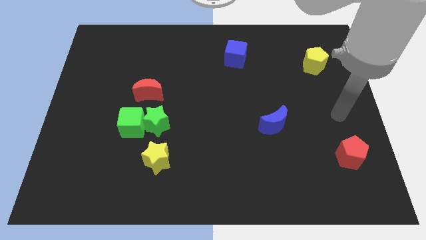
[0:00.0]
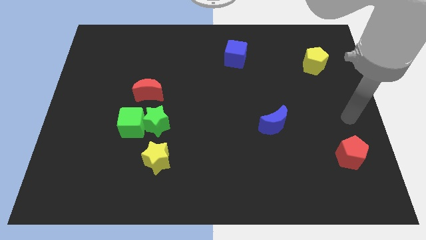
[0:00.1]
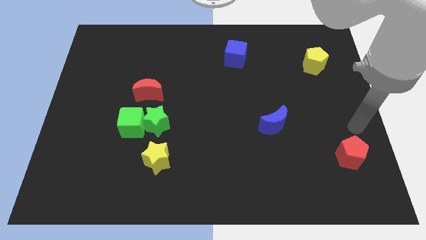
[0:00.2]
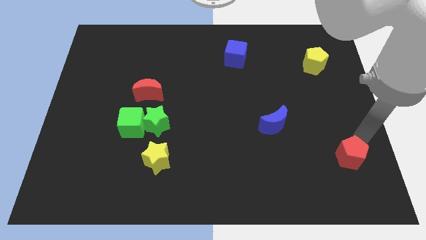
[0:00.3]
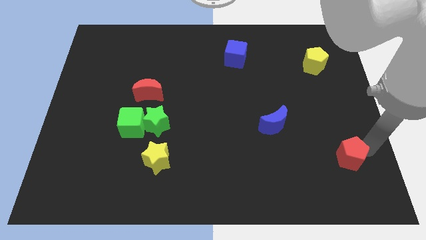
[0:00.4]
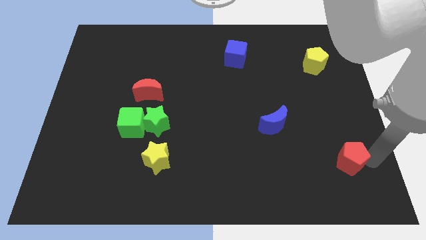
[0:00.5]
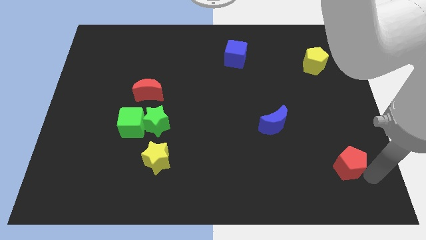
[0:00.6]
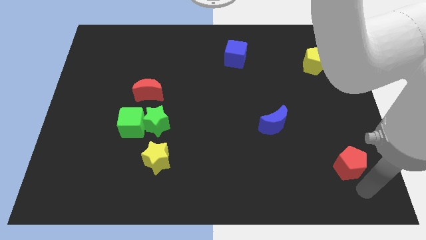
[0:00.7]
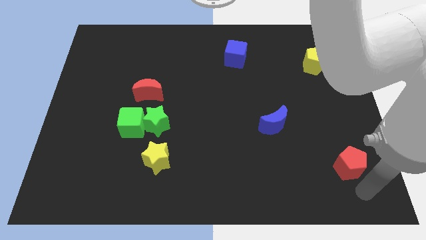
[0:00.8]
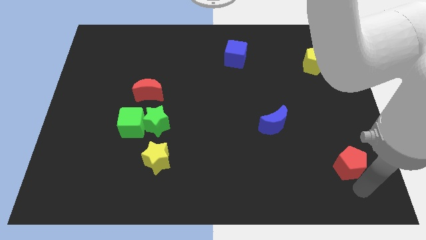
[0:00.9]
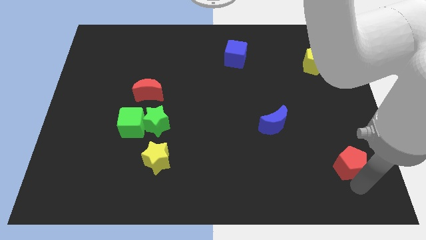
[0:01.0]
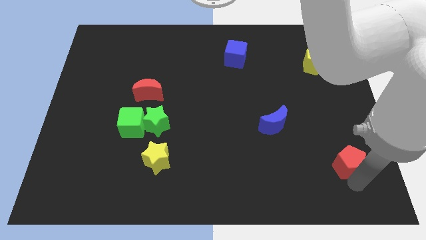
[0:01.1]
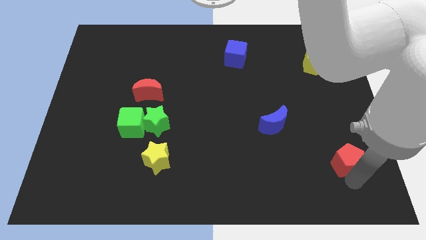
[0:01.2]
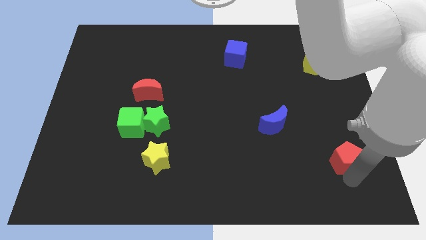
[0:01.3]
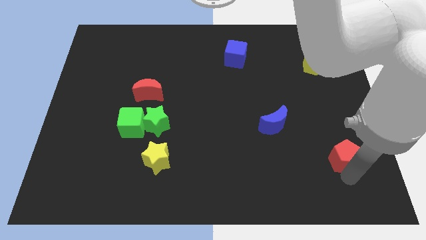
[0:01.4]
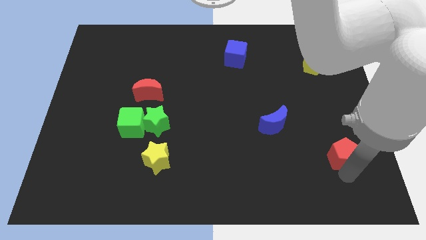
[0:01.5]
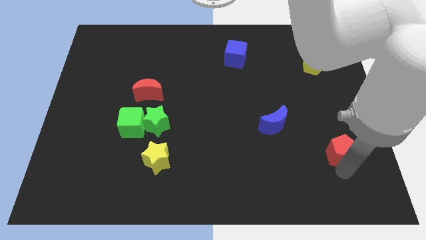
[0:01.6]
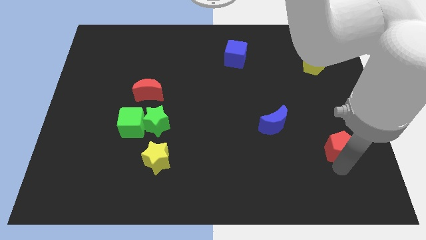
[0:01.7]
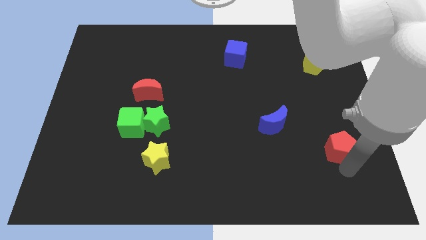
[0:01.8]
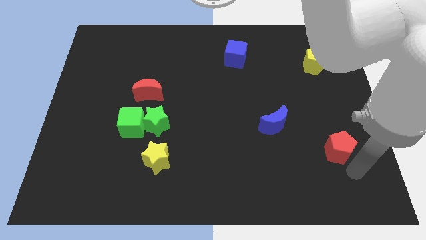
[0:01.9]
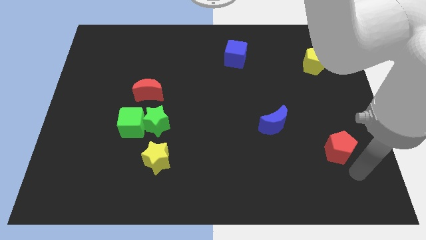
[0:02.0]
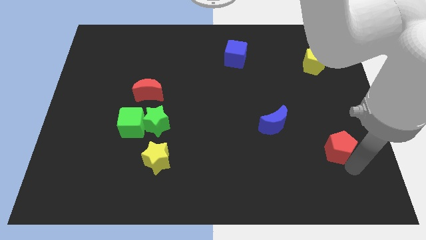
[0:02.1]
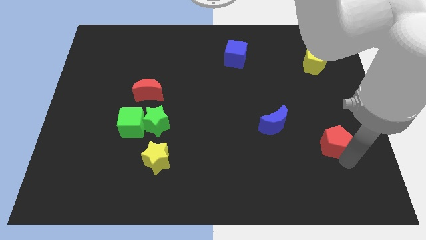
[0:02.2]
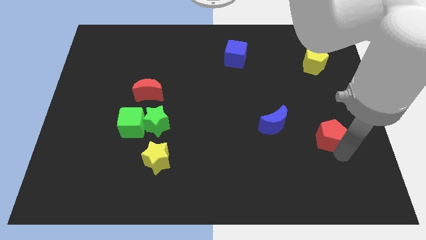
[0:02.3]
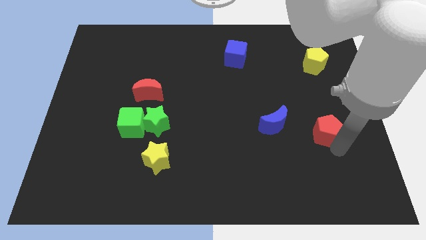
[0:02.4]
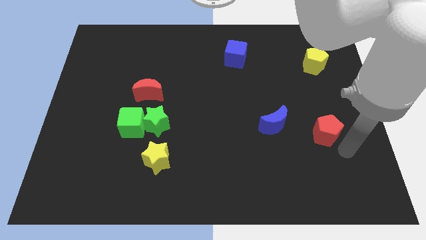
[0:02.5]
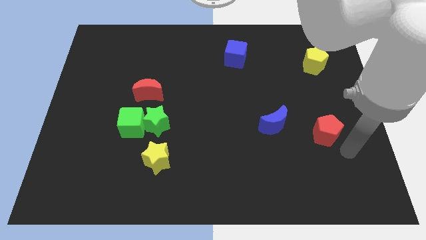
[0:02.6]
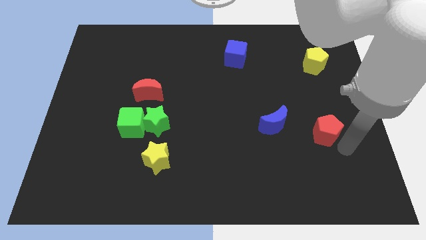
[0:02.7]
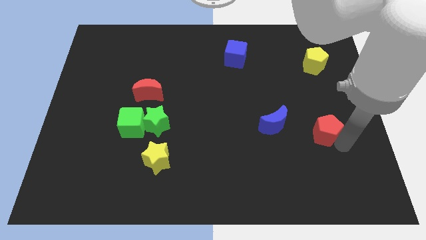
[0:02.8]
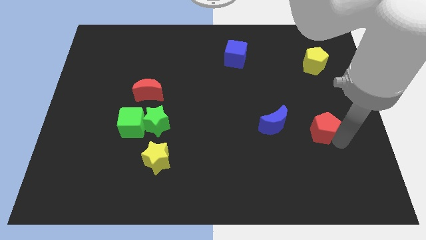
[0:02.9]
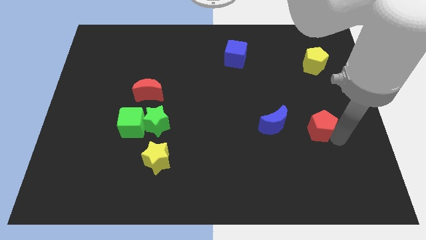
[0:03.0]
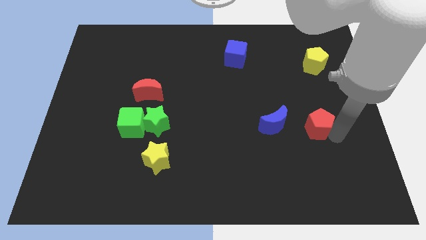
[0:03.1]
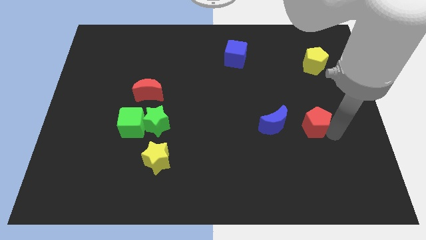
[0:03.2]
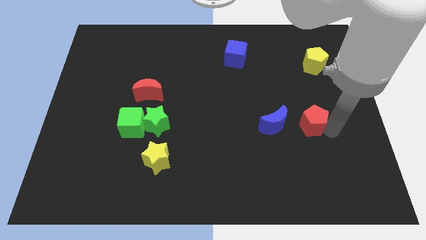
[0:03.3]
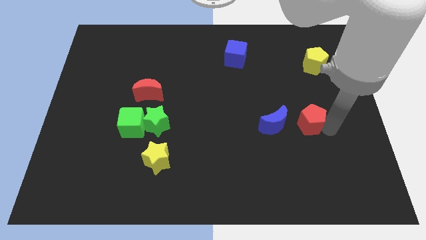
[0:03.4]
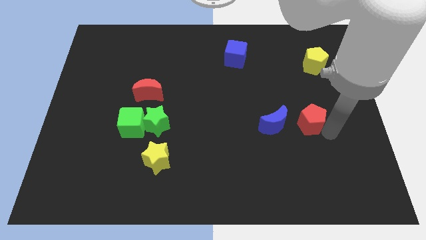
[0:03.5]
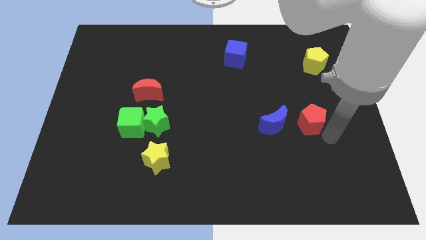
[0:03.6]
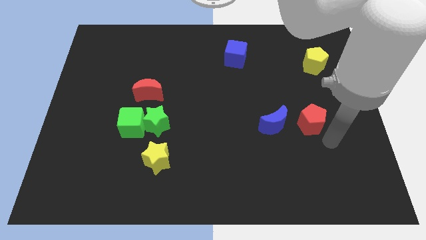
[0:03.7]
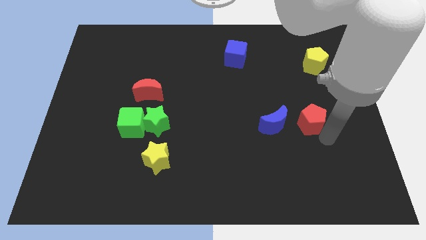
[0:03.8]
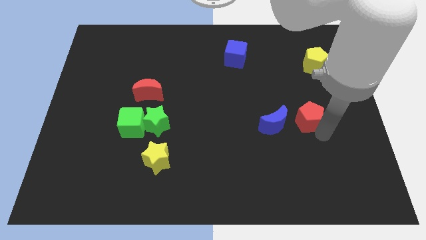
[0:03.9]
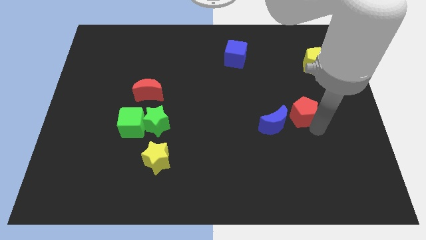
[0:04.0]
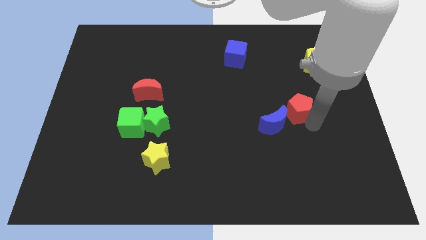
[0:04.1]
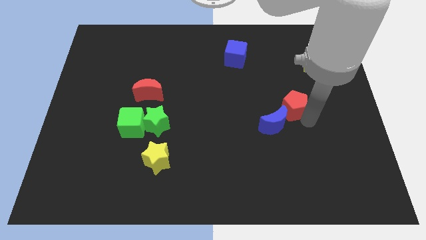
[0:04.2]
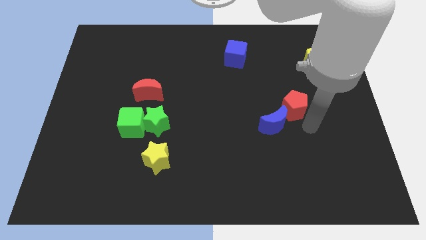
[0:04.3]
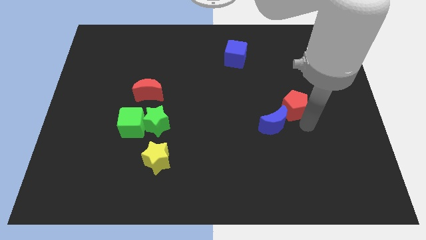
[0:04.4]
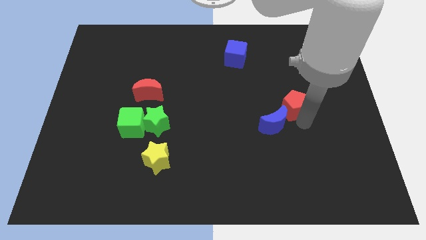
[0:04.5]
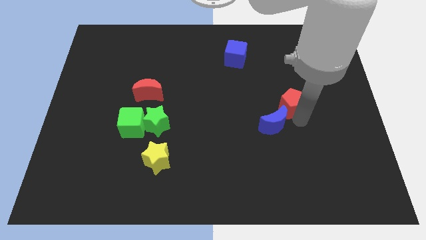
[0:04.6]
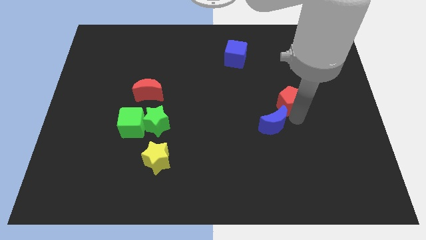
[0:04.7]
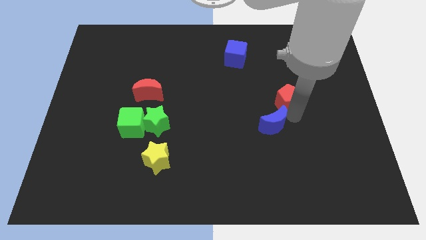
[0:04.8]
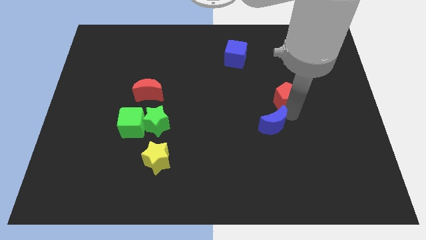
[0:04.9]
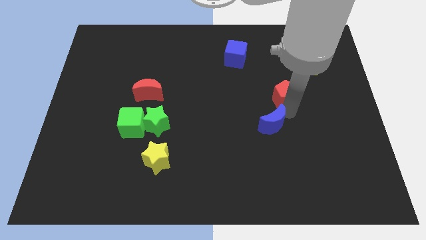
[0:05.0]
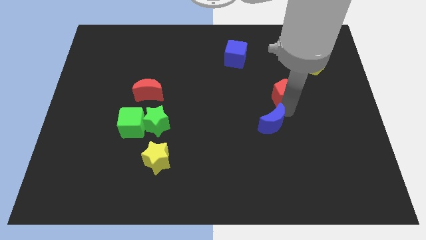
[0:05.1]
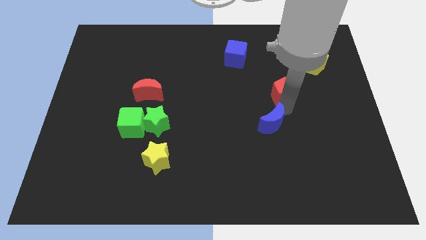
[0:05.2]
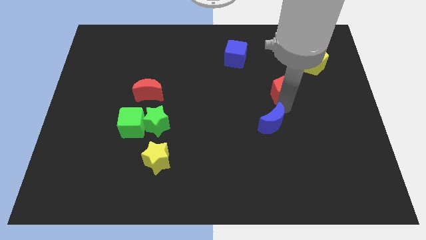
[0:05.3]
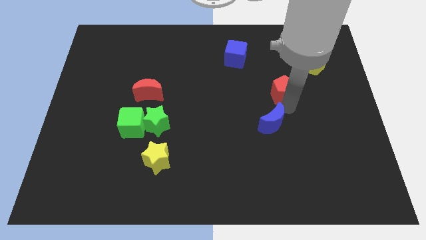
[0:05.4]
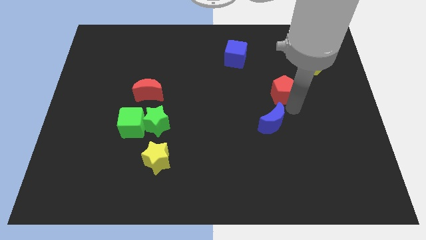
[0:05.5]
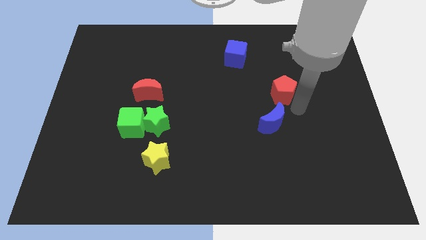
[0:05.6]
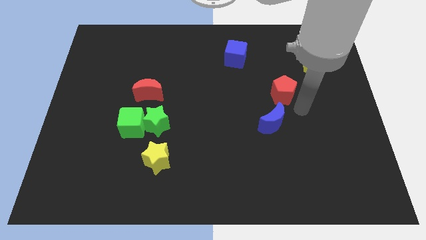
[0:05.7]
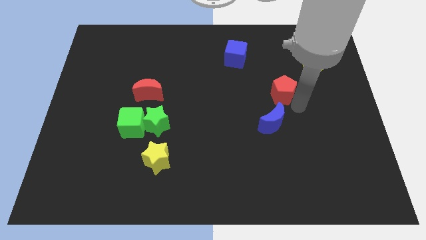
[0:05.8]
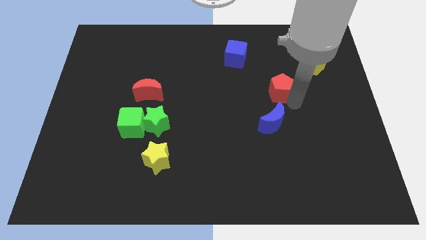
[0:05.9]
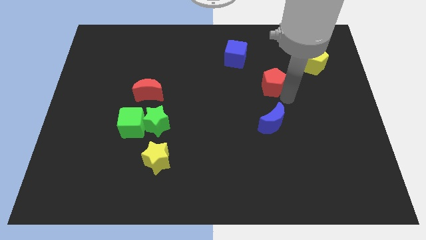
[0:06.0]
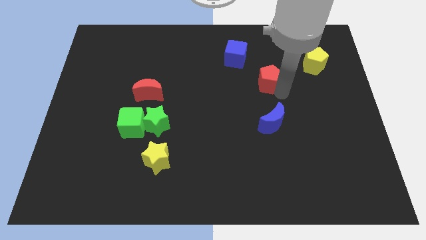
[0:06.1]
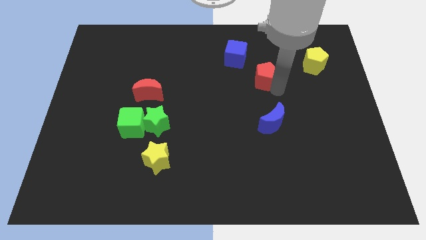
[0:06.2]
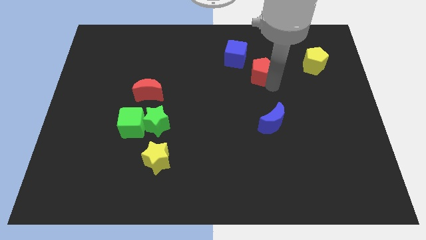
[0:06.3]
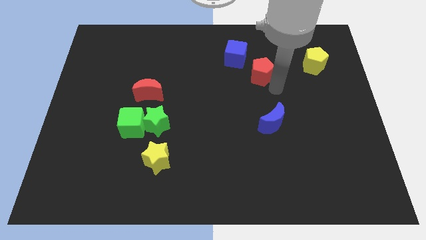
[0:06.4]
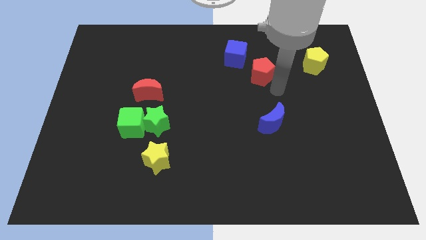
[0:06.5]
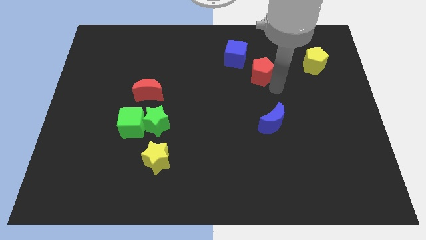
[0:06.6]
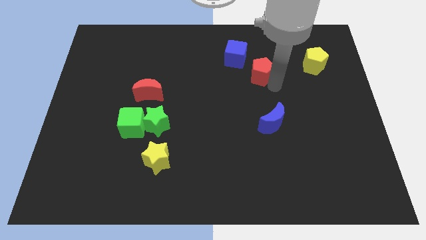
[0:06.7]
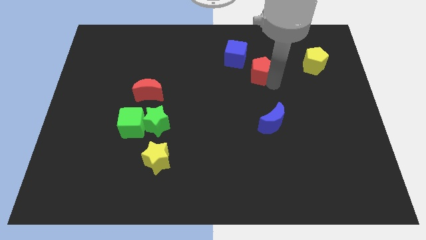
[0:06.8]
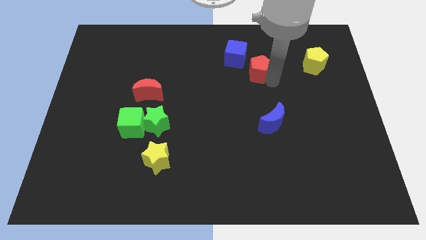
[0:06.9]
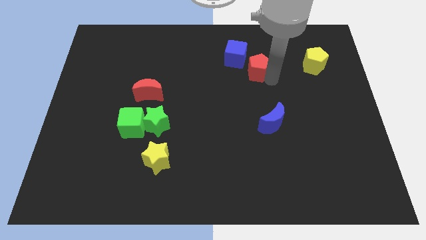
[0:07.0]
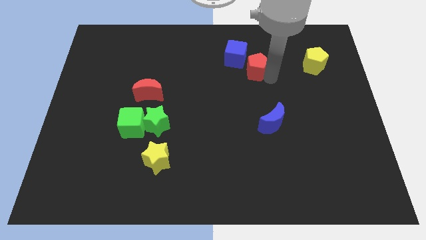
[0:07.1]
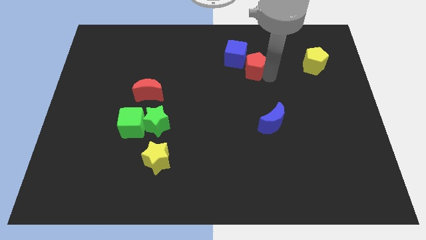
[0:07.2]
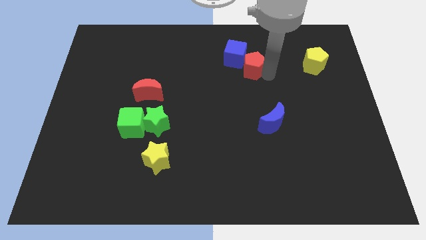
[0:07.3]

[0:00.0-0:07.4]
push the red pentagon to the blue cube
